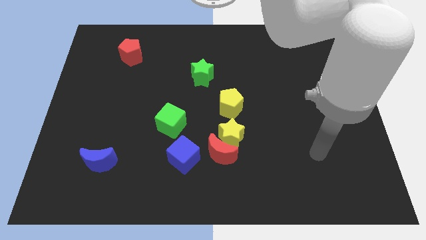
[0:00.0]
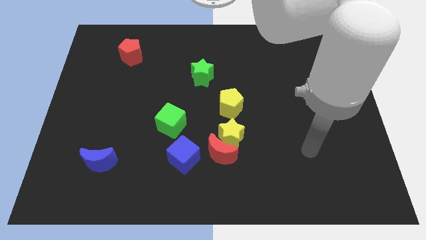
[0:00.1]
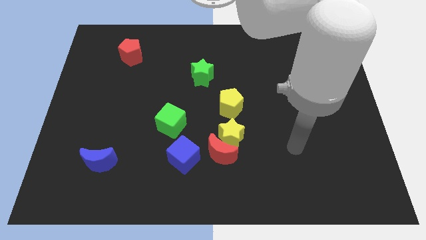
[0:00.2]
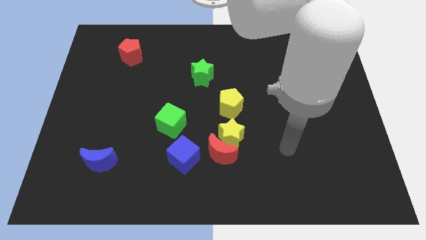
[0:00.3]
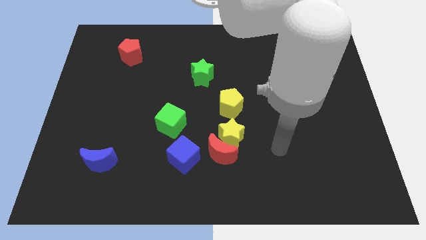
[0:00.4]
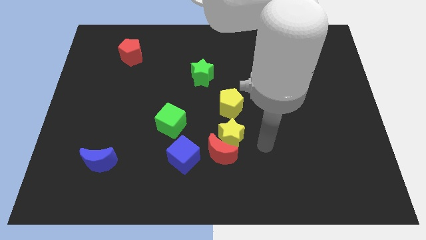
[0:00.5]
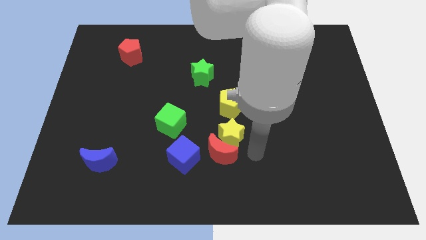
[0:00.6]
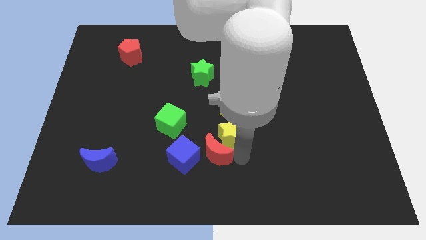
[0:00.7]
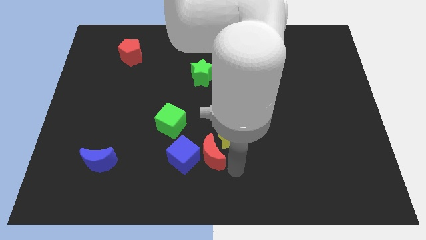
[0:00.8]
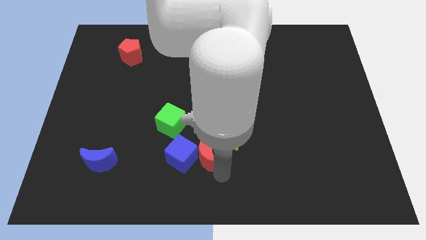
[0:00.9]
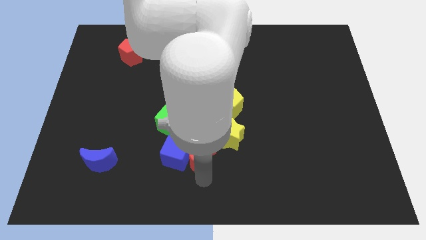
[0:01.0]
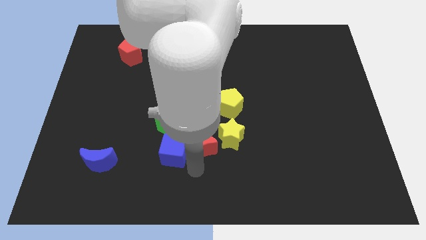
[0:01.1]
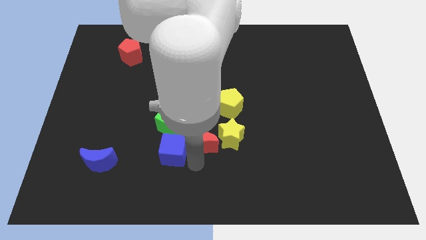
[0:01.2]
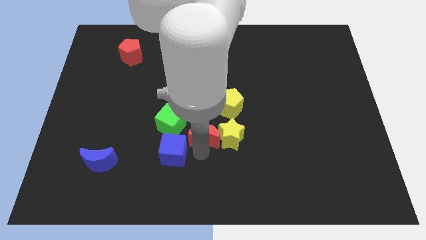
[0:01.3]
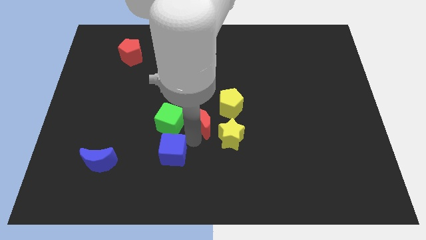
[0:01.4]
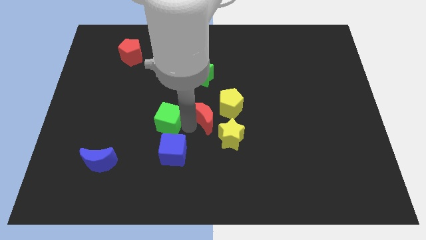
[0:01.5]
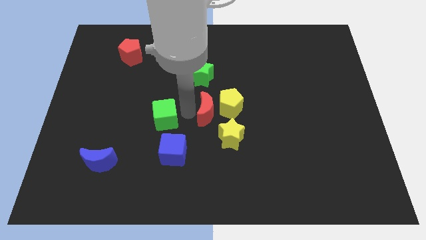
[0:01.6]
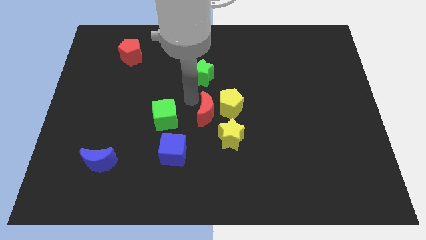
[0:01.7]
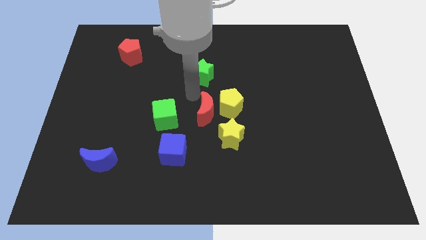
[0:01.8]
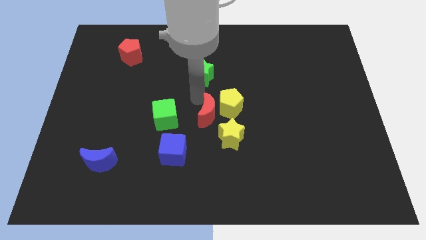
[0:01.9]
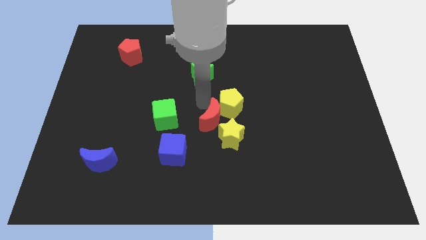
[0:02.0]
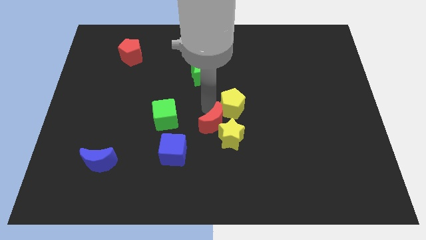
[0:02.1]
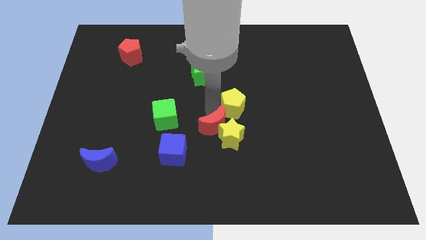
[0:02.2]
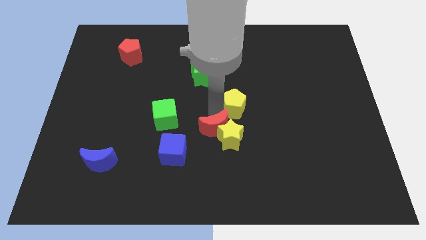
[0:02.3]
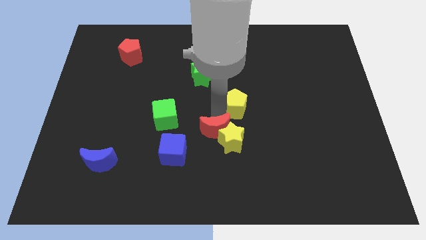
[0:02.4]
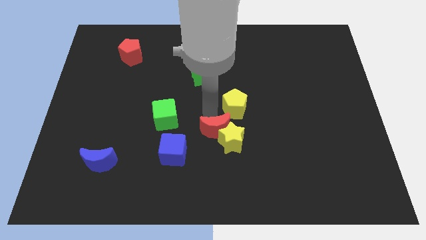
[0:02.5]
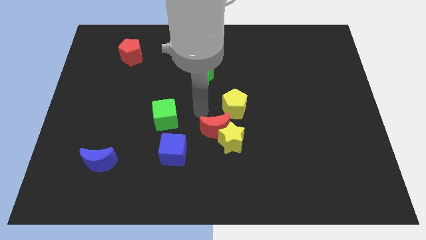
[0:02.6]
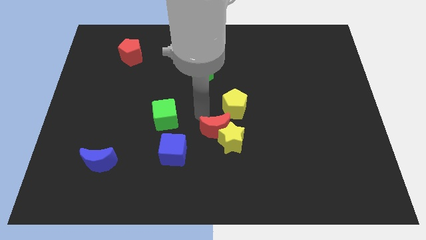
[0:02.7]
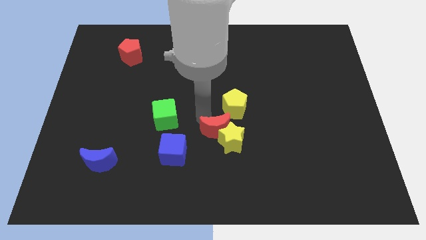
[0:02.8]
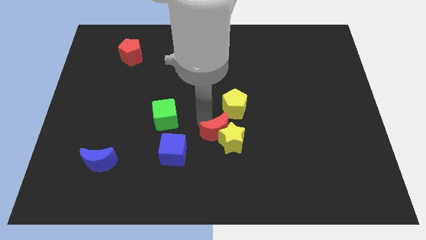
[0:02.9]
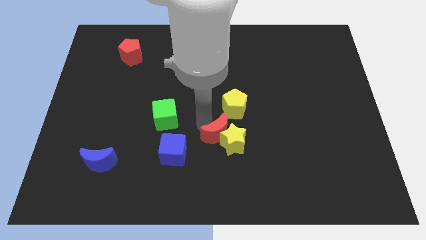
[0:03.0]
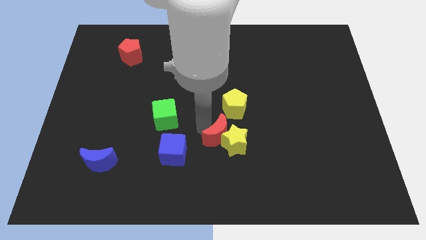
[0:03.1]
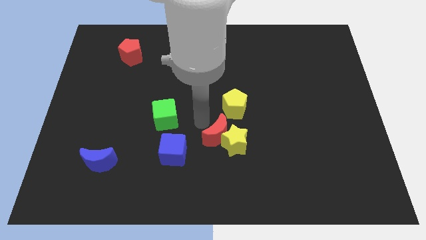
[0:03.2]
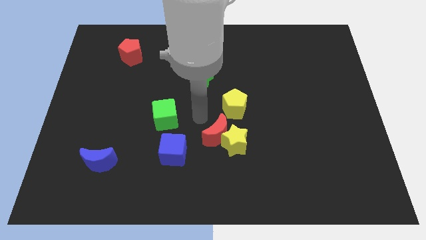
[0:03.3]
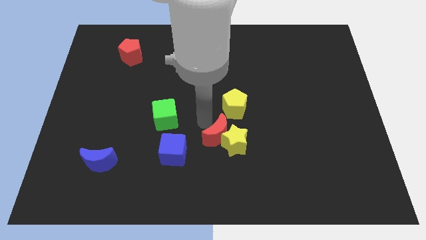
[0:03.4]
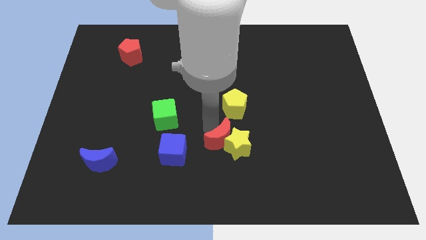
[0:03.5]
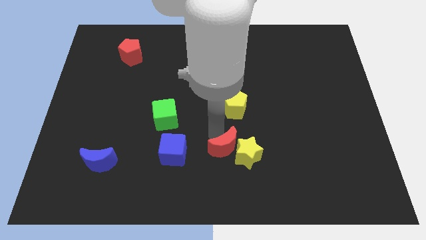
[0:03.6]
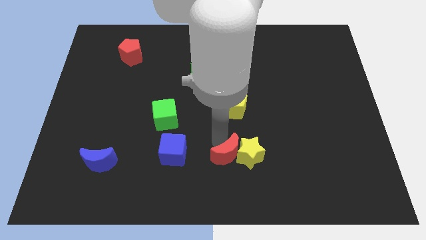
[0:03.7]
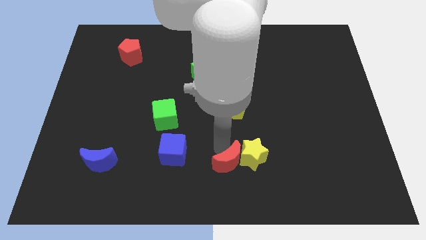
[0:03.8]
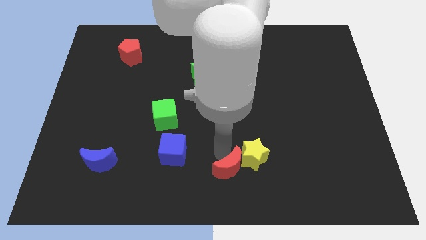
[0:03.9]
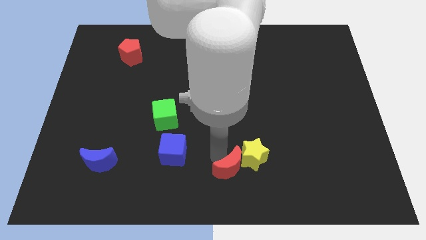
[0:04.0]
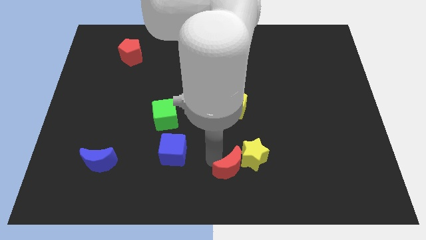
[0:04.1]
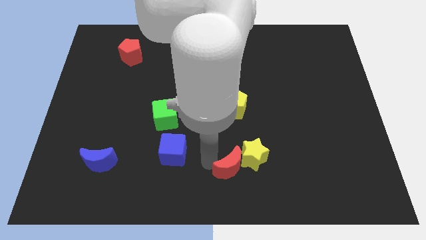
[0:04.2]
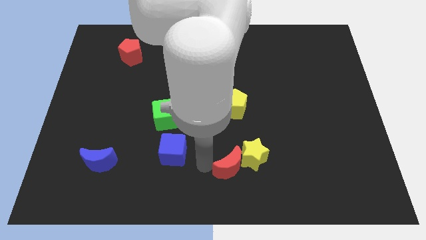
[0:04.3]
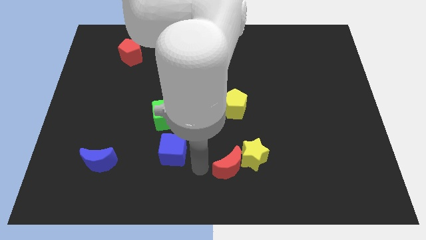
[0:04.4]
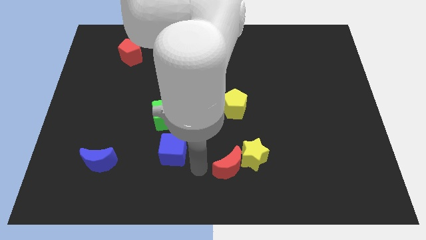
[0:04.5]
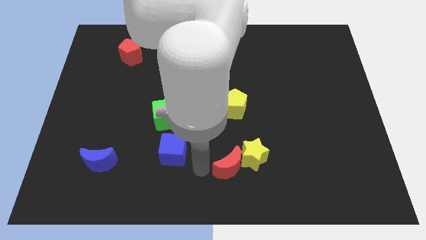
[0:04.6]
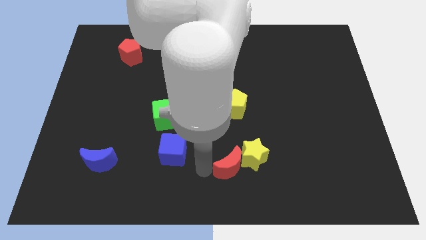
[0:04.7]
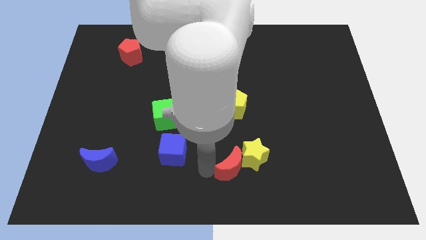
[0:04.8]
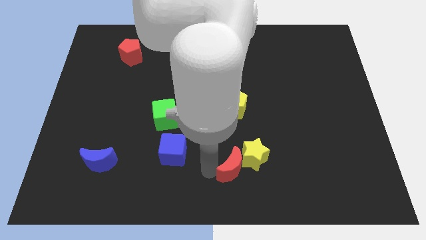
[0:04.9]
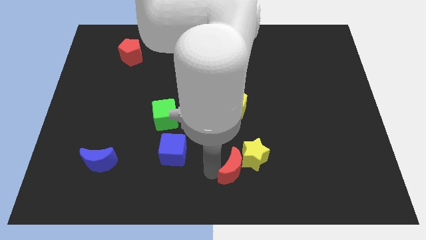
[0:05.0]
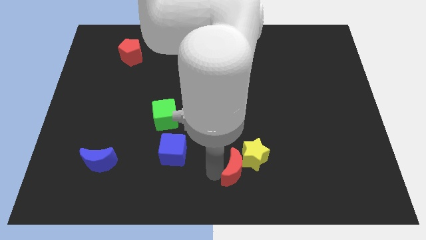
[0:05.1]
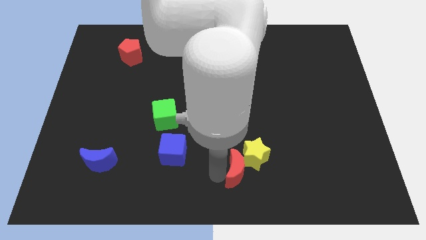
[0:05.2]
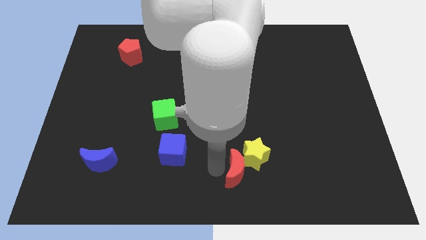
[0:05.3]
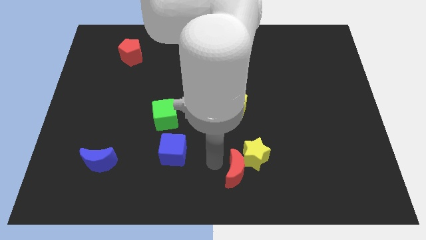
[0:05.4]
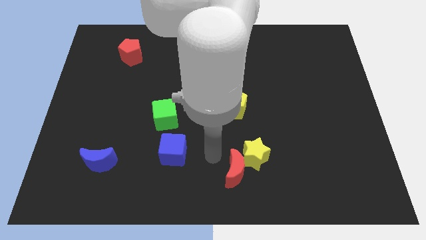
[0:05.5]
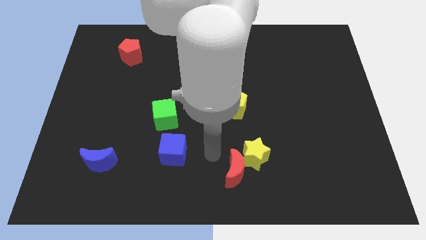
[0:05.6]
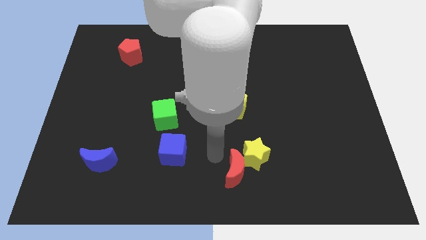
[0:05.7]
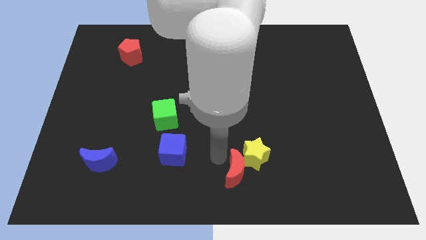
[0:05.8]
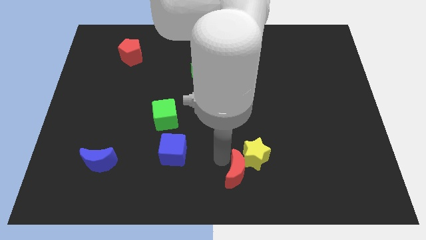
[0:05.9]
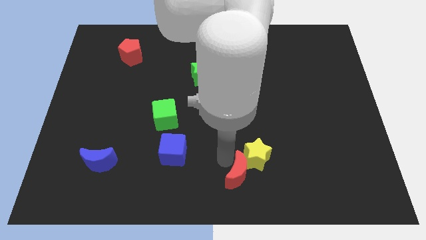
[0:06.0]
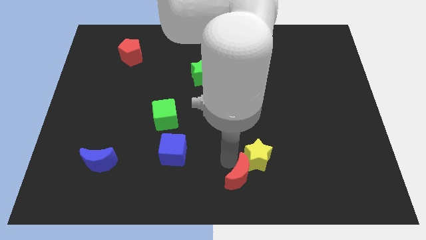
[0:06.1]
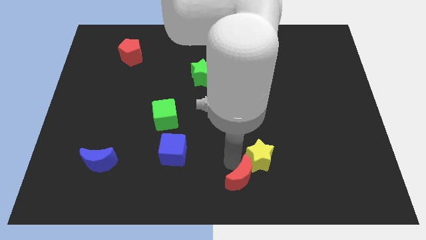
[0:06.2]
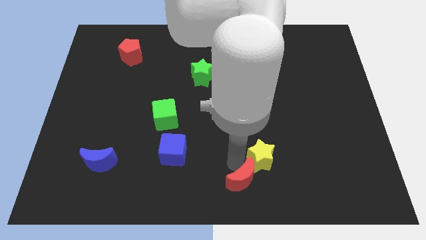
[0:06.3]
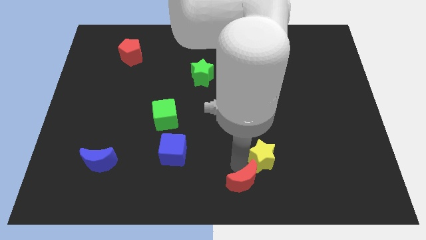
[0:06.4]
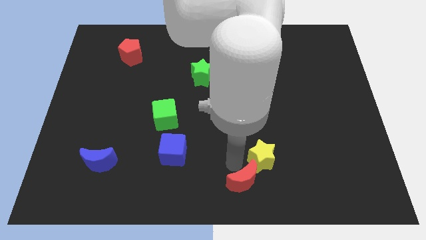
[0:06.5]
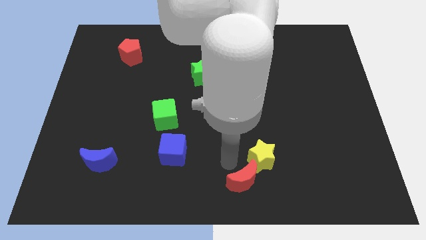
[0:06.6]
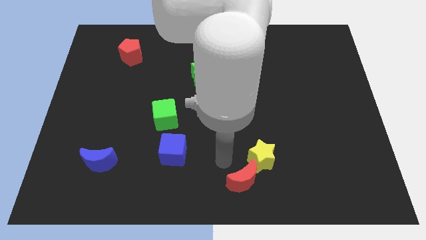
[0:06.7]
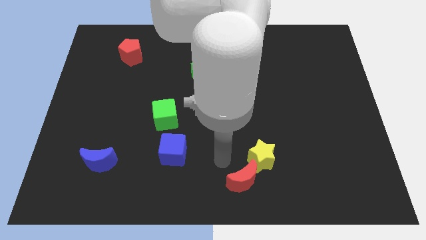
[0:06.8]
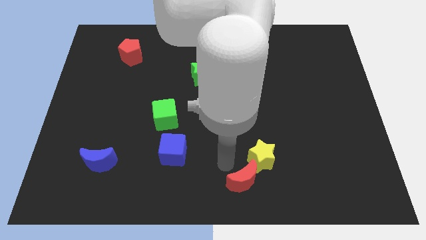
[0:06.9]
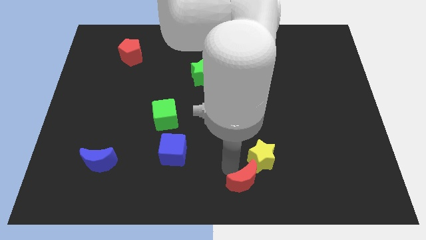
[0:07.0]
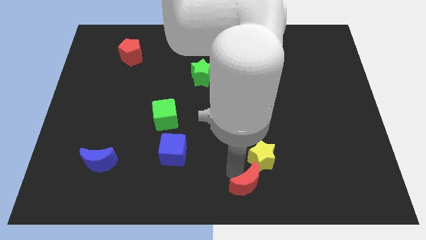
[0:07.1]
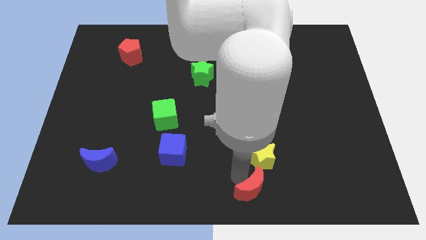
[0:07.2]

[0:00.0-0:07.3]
separate the red moon from the yellow star and blue cube

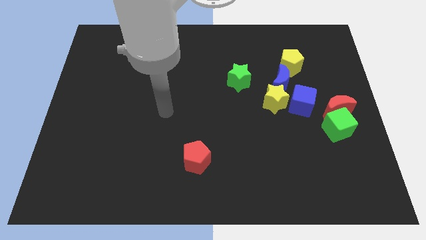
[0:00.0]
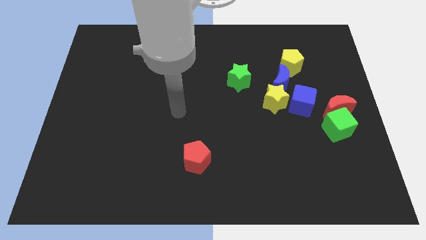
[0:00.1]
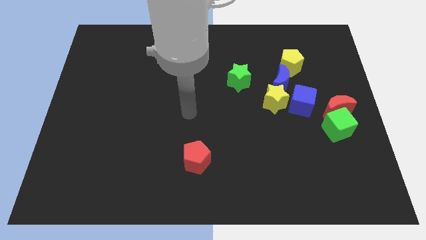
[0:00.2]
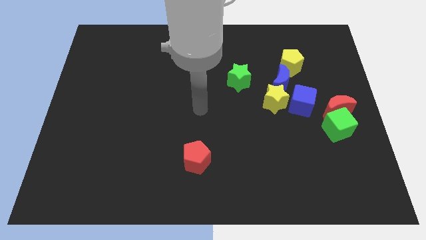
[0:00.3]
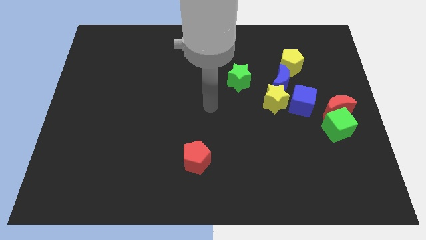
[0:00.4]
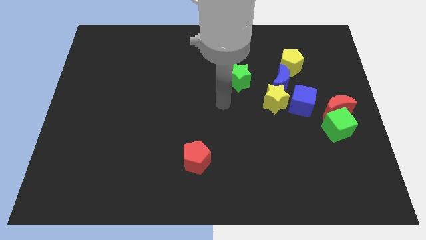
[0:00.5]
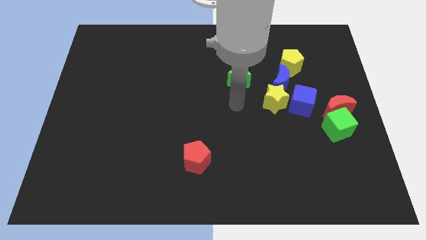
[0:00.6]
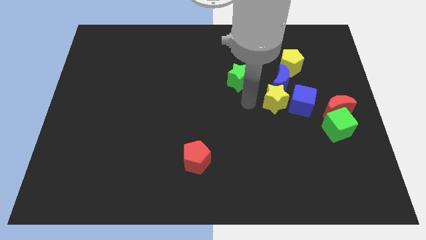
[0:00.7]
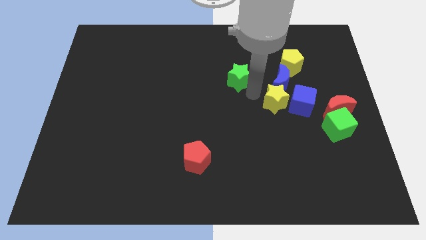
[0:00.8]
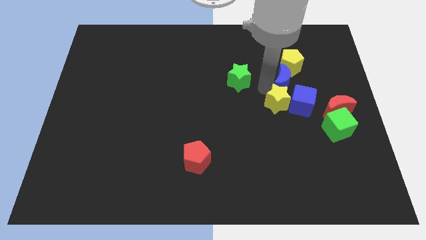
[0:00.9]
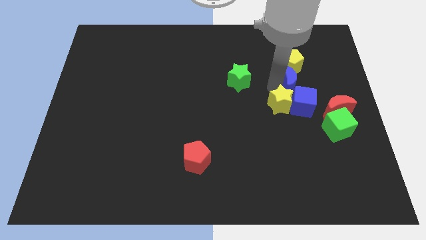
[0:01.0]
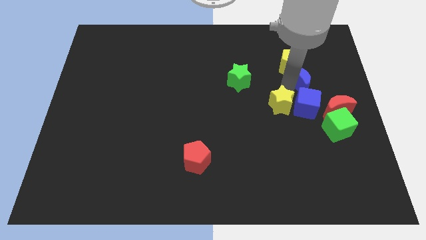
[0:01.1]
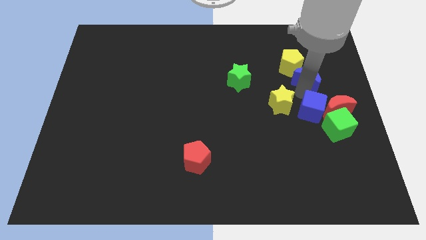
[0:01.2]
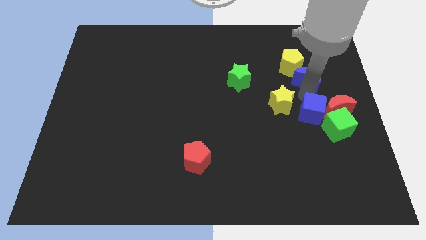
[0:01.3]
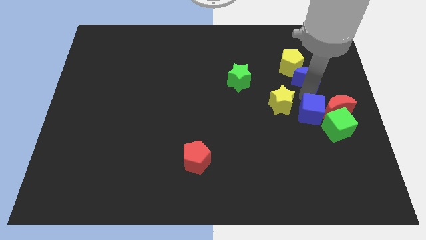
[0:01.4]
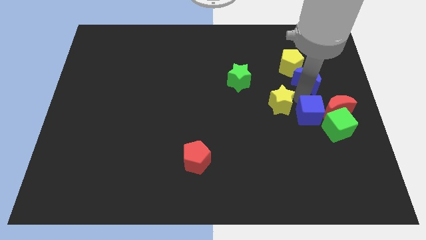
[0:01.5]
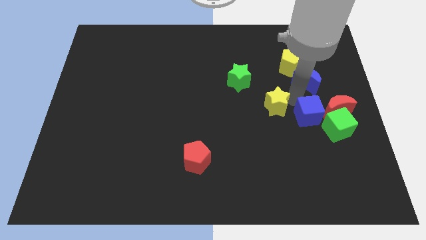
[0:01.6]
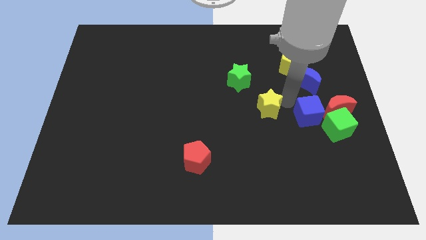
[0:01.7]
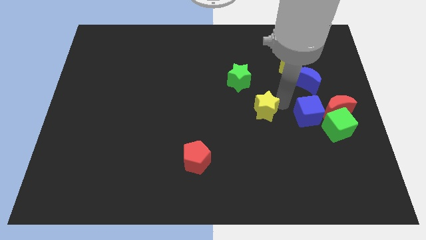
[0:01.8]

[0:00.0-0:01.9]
pull the yellow star apart from the blue moon and blue cube

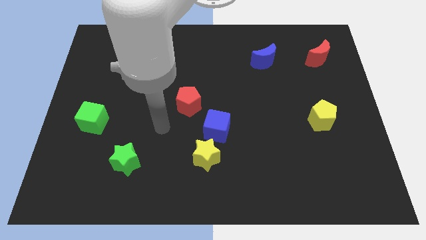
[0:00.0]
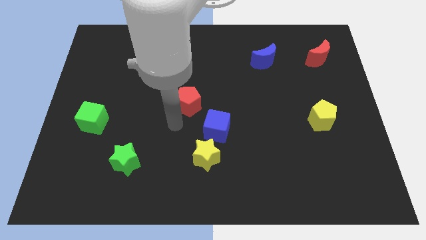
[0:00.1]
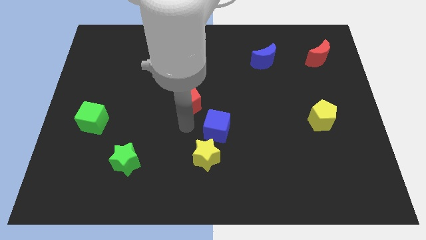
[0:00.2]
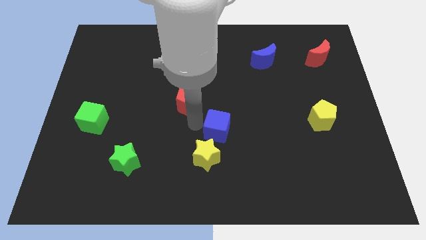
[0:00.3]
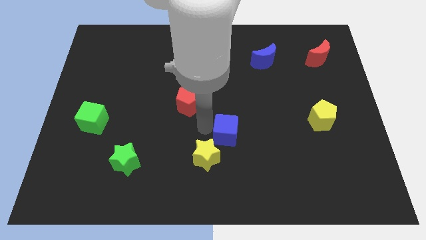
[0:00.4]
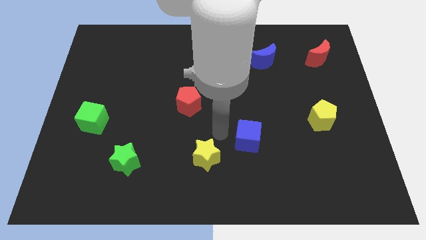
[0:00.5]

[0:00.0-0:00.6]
separate the yellow star from the blue cube
